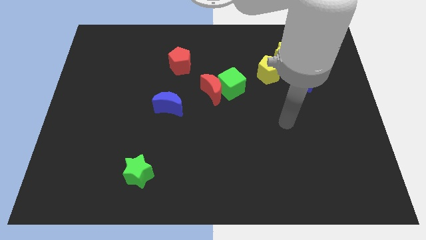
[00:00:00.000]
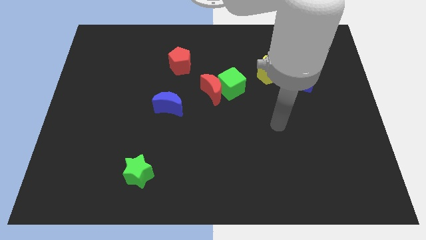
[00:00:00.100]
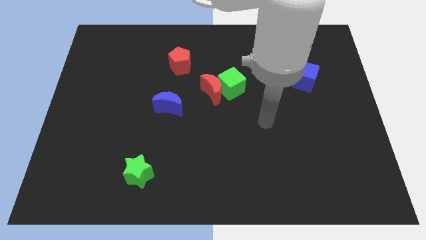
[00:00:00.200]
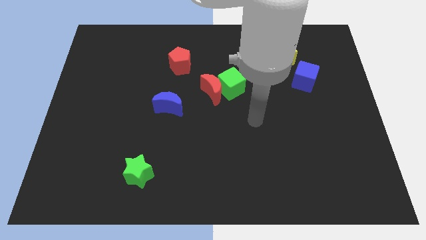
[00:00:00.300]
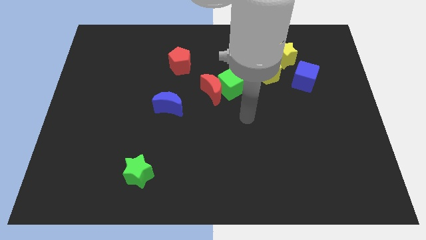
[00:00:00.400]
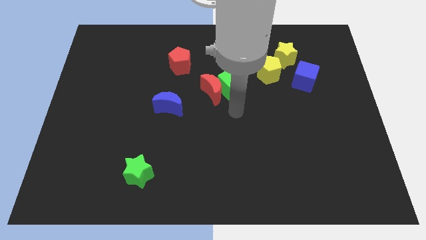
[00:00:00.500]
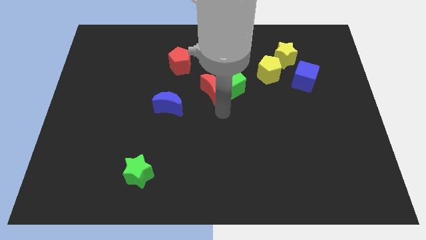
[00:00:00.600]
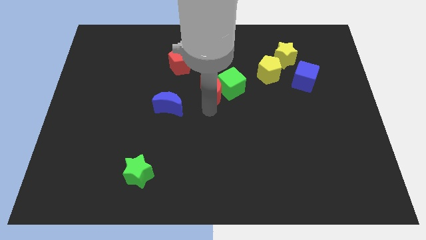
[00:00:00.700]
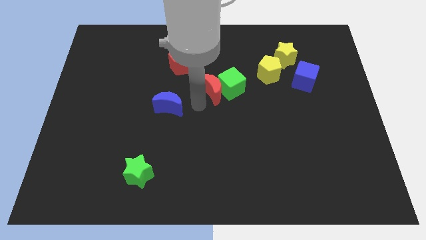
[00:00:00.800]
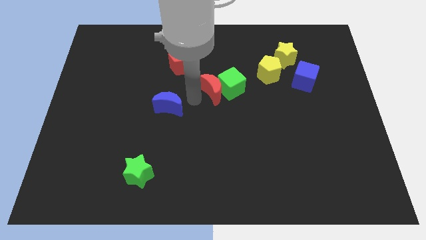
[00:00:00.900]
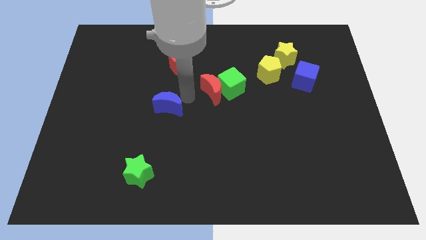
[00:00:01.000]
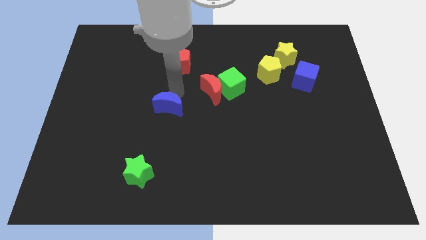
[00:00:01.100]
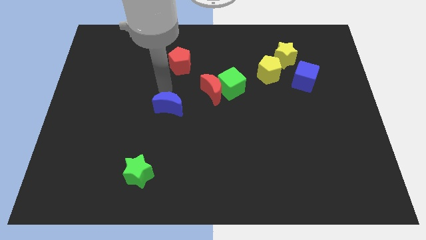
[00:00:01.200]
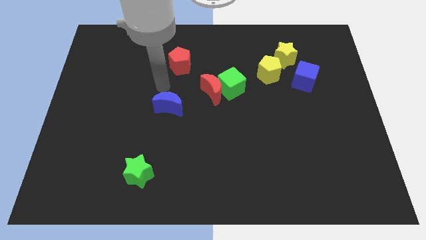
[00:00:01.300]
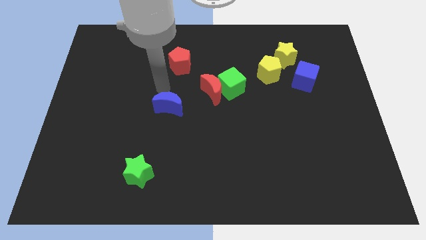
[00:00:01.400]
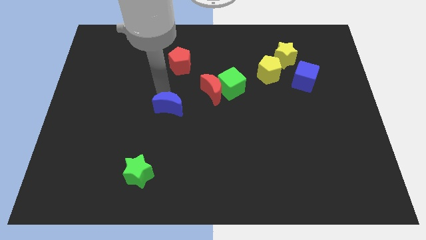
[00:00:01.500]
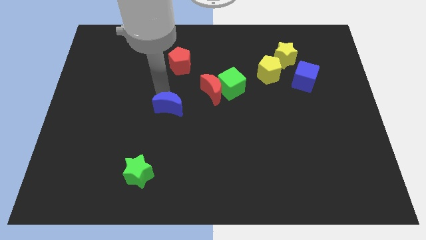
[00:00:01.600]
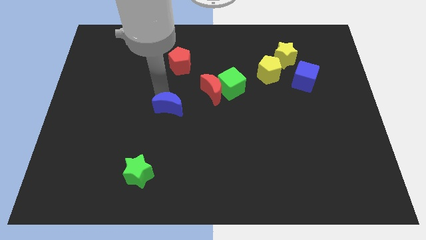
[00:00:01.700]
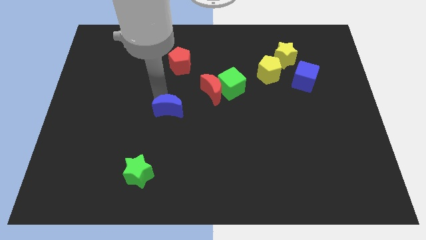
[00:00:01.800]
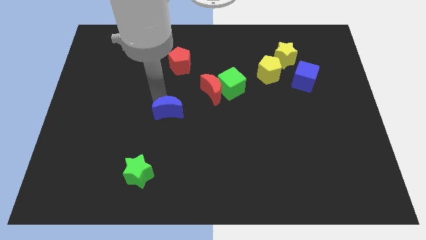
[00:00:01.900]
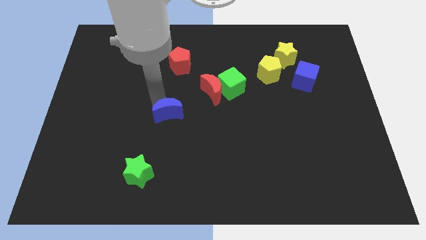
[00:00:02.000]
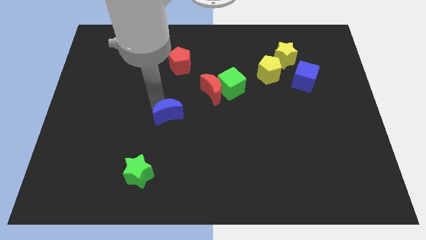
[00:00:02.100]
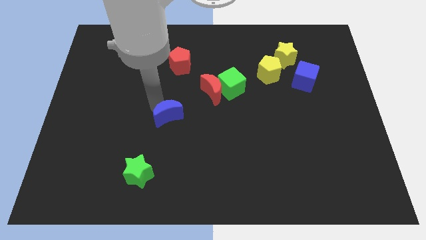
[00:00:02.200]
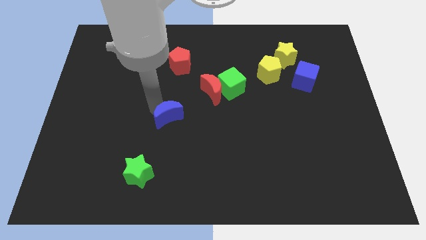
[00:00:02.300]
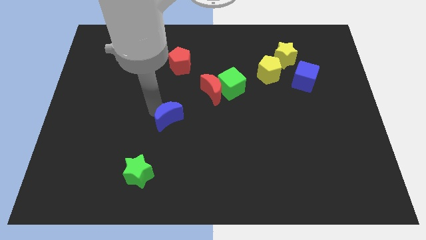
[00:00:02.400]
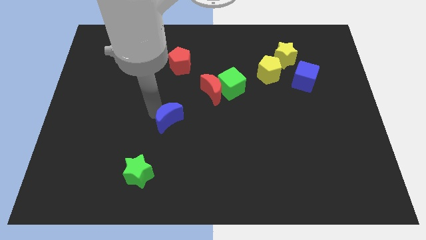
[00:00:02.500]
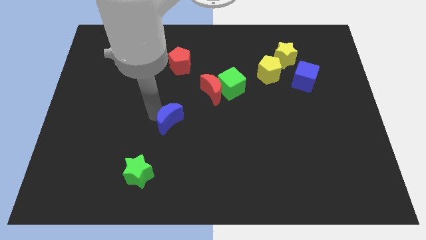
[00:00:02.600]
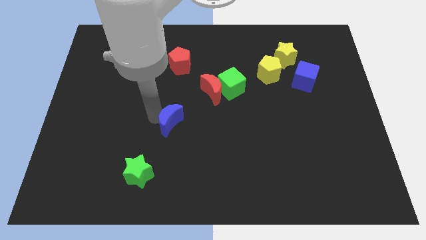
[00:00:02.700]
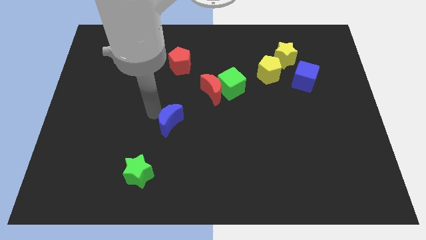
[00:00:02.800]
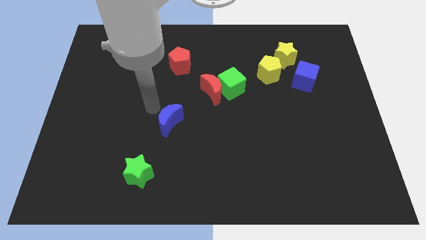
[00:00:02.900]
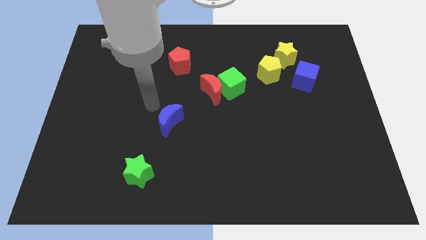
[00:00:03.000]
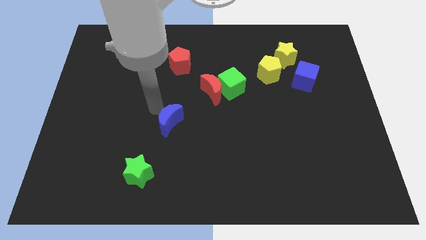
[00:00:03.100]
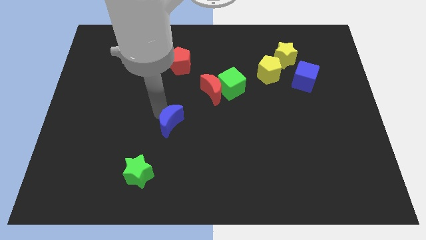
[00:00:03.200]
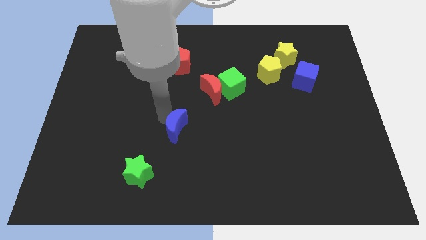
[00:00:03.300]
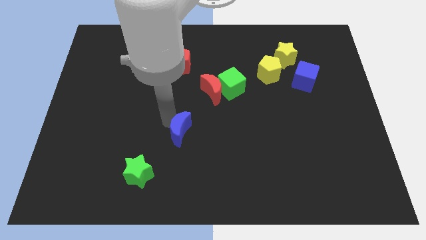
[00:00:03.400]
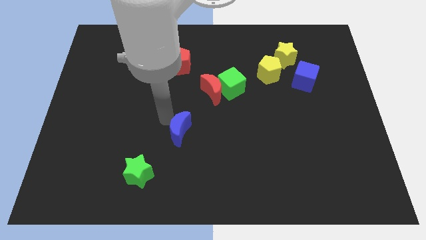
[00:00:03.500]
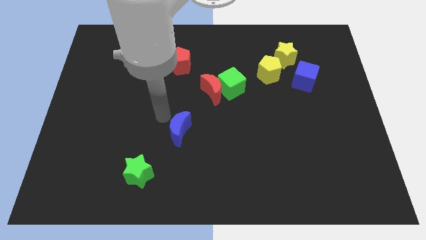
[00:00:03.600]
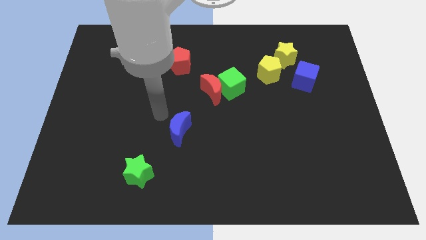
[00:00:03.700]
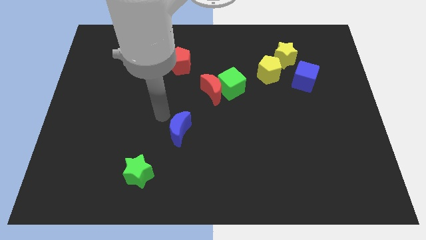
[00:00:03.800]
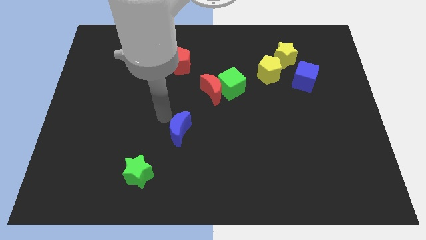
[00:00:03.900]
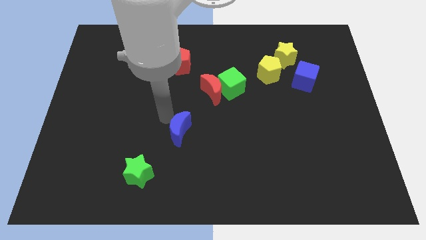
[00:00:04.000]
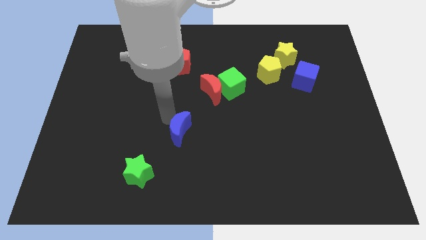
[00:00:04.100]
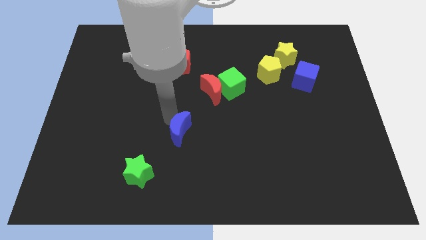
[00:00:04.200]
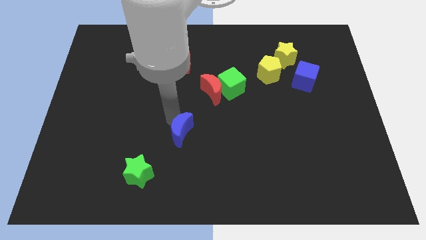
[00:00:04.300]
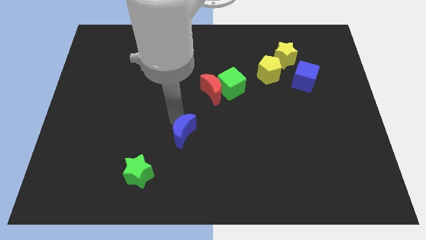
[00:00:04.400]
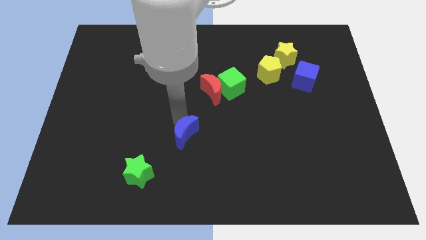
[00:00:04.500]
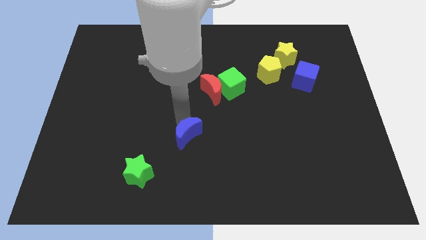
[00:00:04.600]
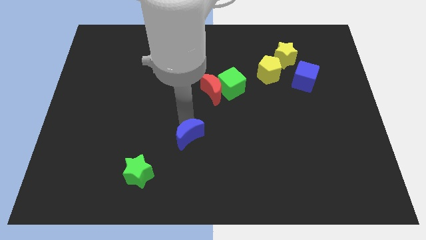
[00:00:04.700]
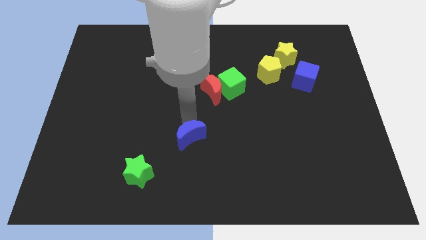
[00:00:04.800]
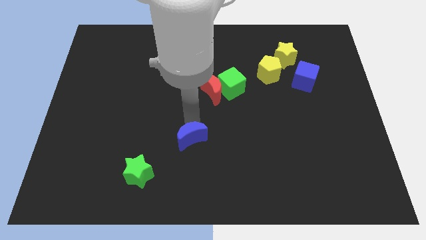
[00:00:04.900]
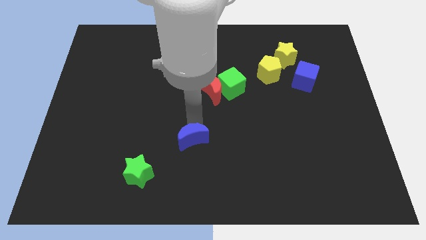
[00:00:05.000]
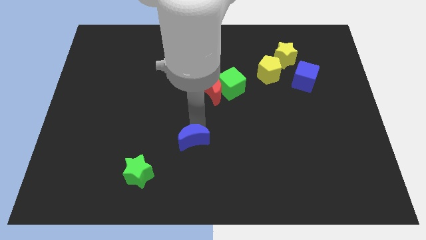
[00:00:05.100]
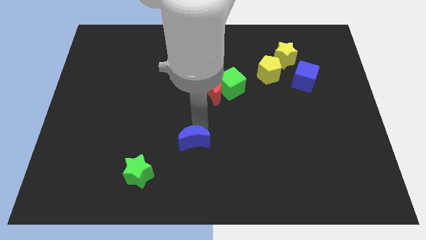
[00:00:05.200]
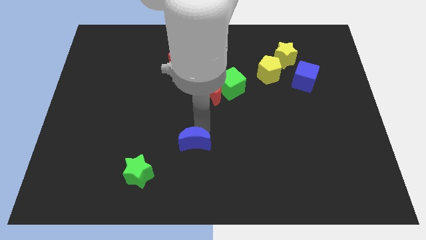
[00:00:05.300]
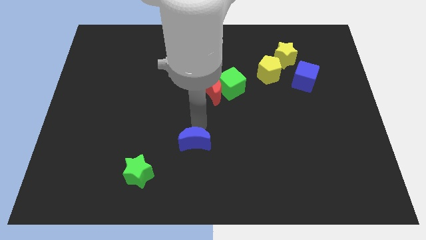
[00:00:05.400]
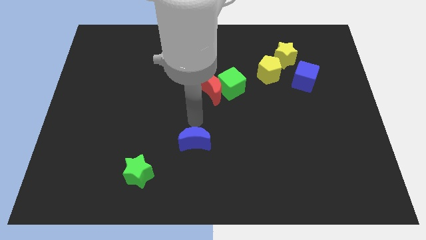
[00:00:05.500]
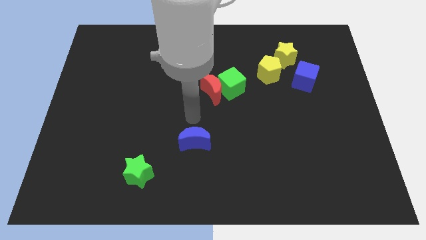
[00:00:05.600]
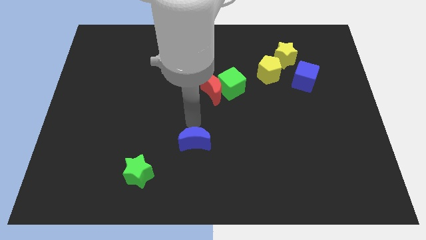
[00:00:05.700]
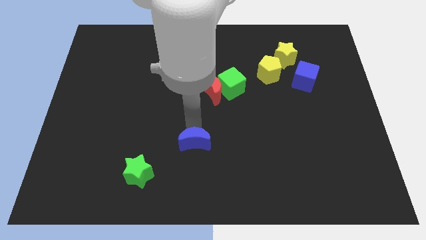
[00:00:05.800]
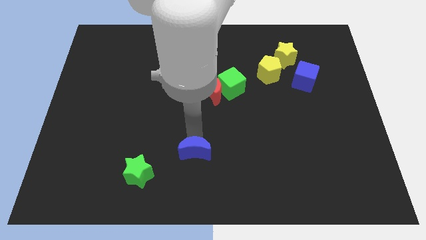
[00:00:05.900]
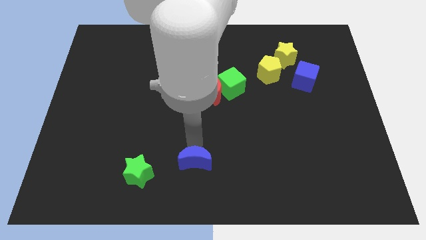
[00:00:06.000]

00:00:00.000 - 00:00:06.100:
move the blue moon to the bottom
